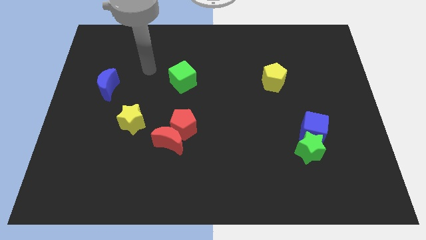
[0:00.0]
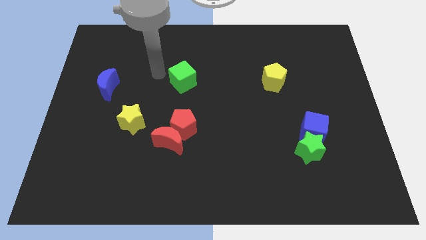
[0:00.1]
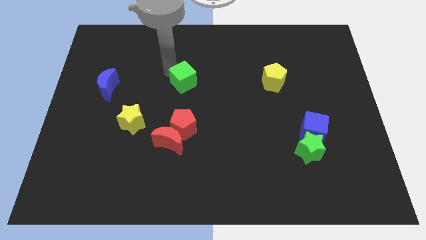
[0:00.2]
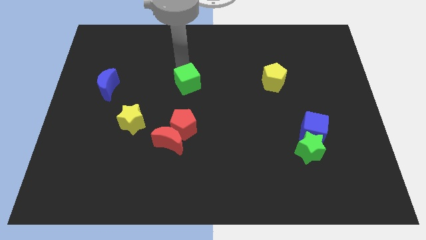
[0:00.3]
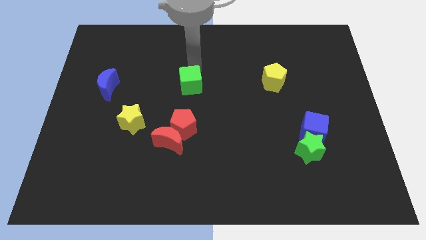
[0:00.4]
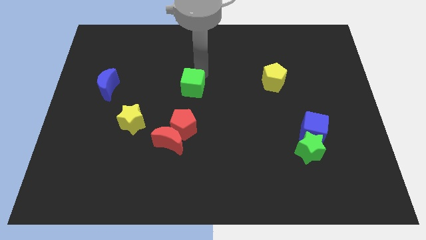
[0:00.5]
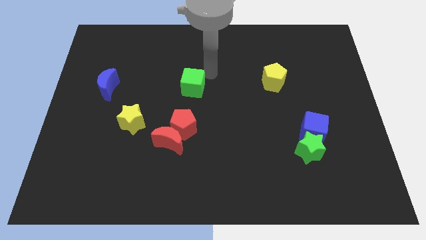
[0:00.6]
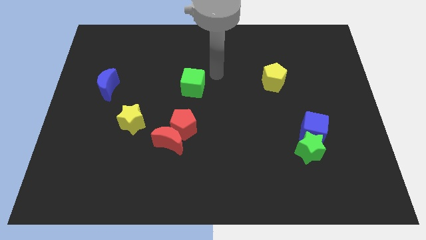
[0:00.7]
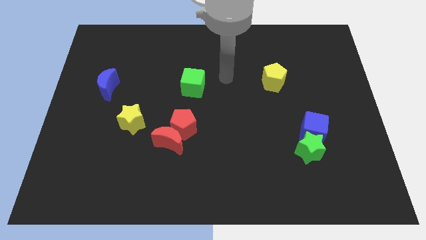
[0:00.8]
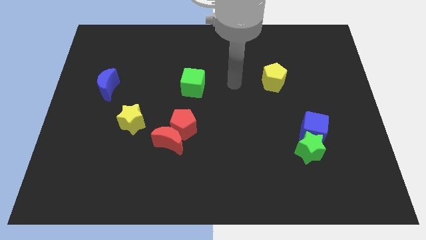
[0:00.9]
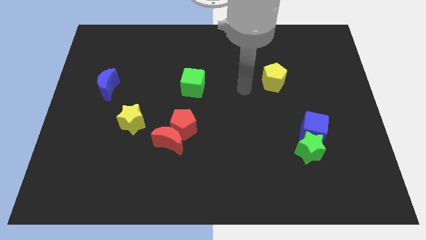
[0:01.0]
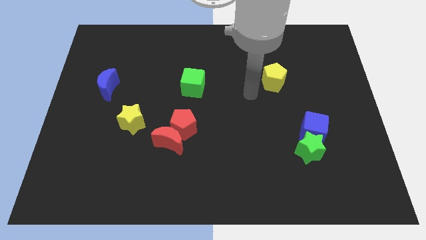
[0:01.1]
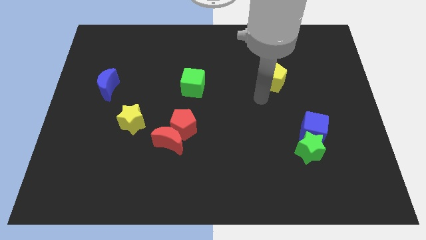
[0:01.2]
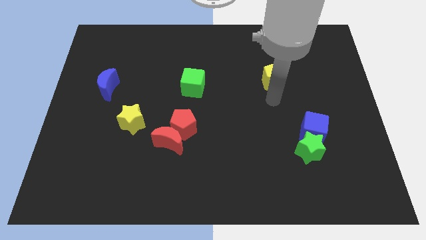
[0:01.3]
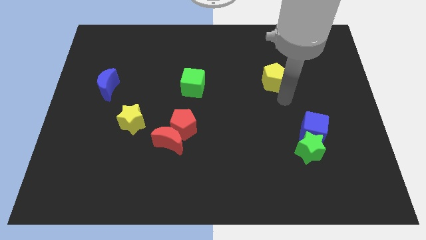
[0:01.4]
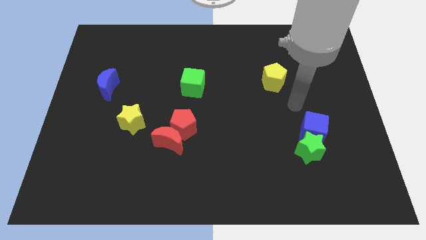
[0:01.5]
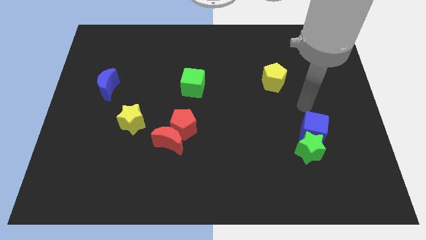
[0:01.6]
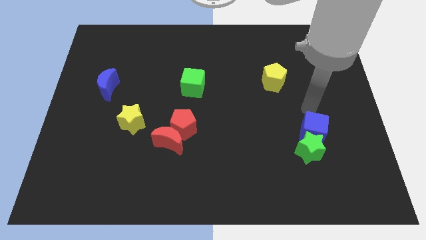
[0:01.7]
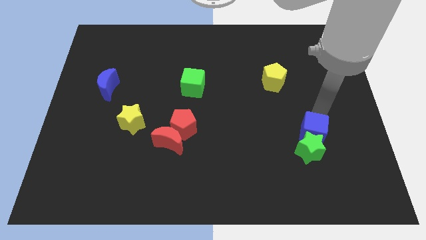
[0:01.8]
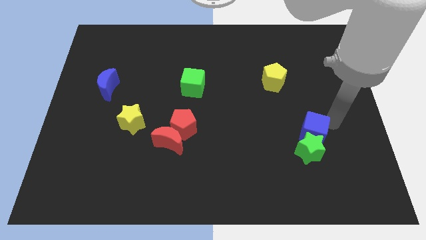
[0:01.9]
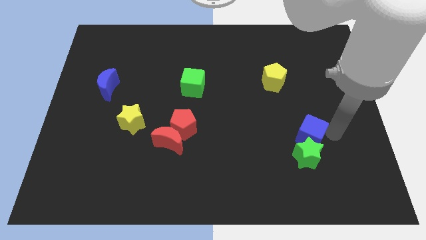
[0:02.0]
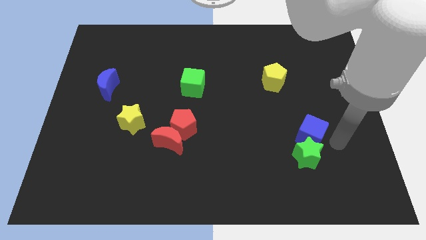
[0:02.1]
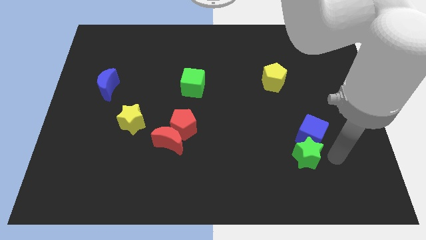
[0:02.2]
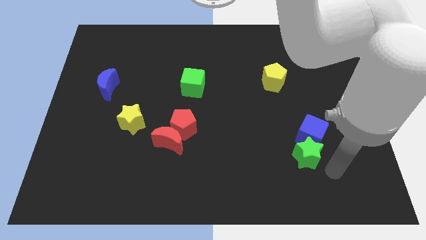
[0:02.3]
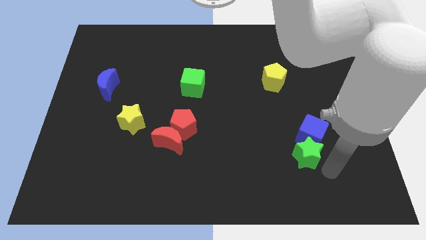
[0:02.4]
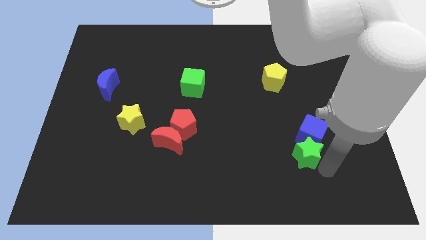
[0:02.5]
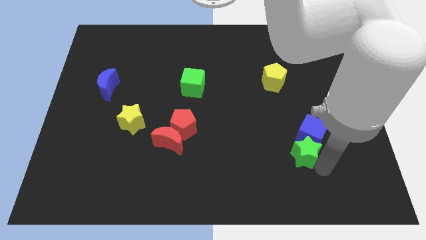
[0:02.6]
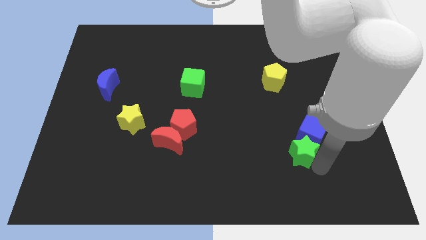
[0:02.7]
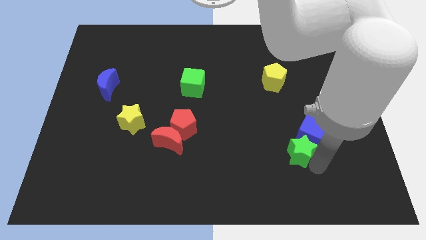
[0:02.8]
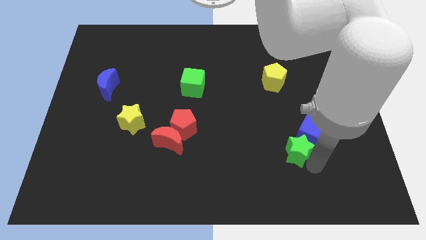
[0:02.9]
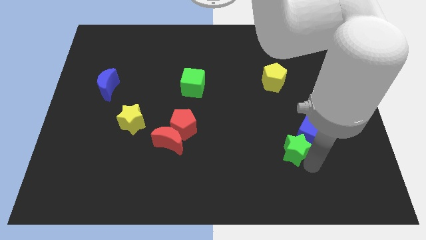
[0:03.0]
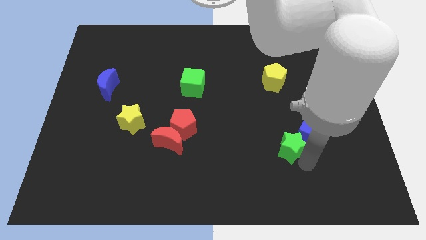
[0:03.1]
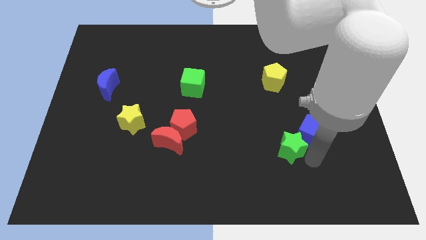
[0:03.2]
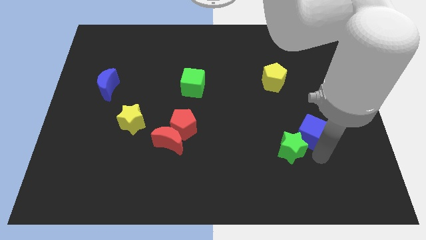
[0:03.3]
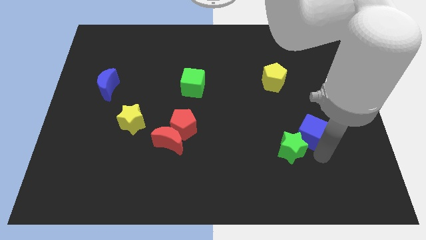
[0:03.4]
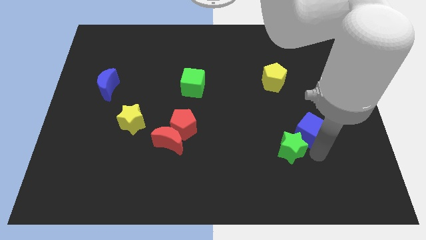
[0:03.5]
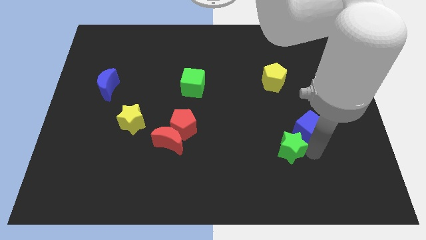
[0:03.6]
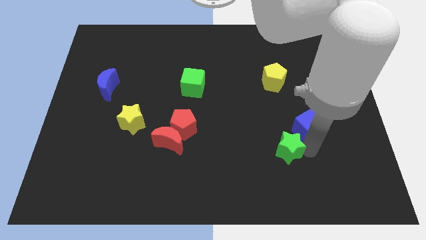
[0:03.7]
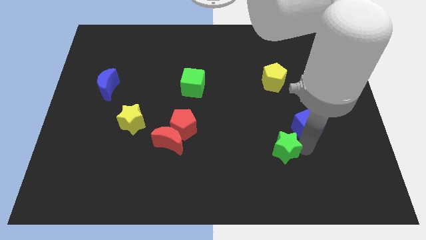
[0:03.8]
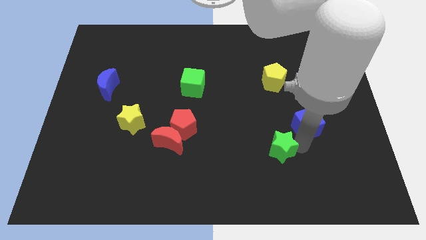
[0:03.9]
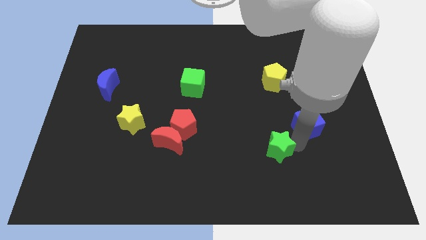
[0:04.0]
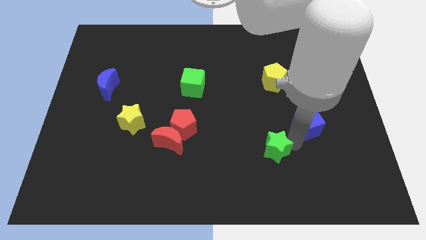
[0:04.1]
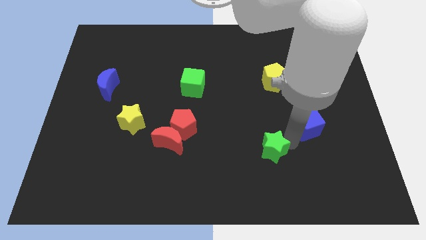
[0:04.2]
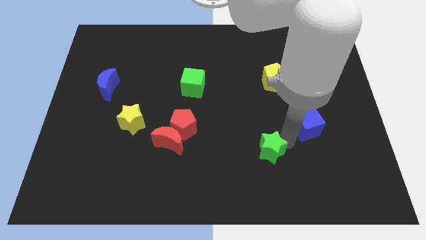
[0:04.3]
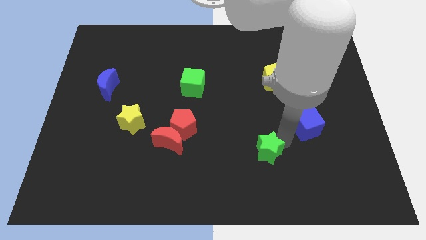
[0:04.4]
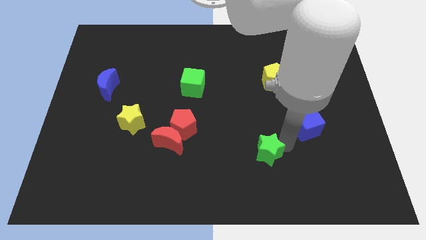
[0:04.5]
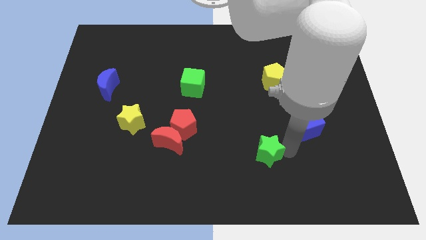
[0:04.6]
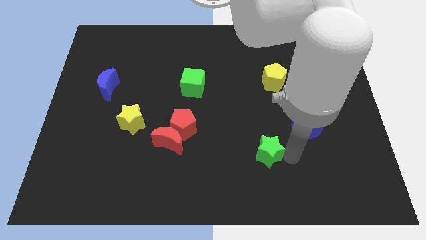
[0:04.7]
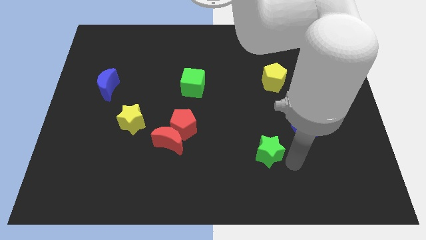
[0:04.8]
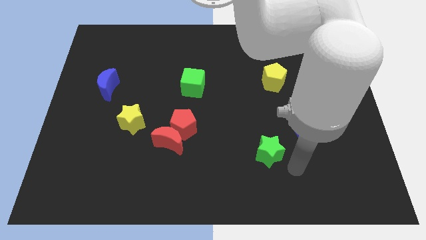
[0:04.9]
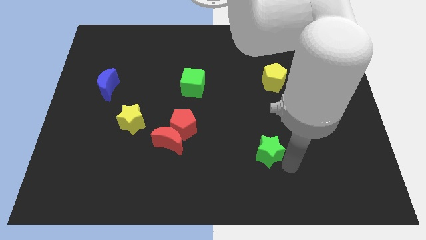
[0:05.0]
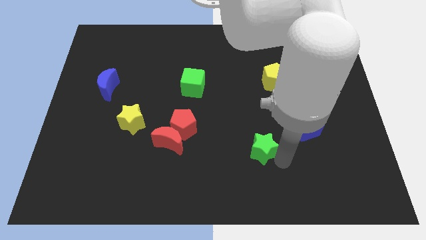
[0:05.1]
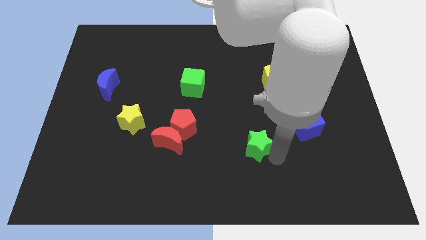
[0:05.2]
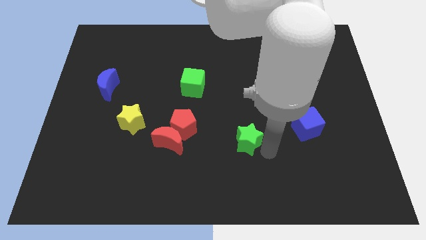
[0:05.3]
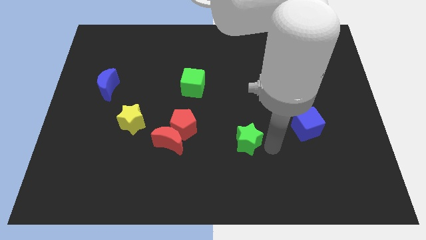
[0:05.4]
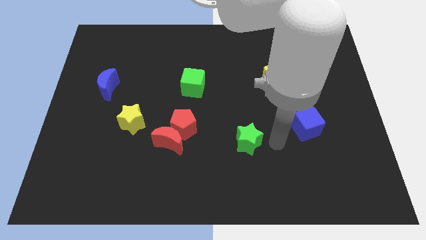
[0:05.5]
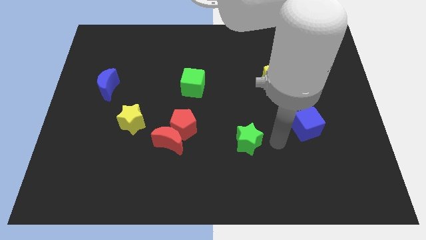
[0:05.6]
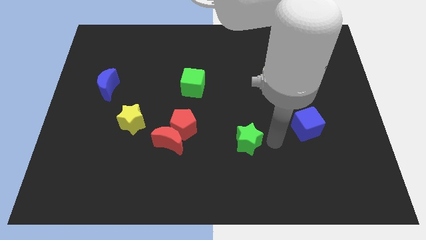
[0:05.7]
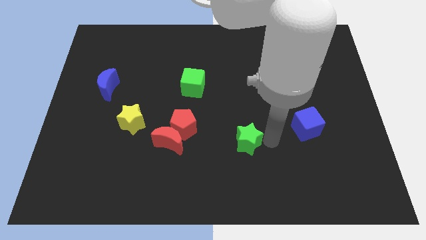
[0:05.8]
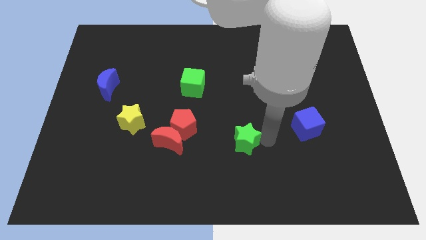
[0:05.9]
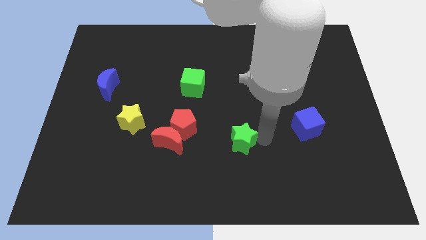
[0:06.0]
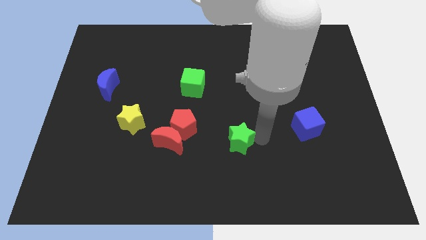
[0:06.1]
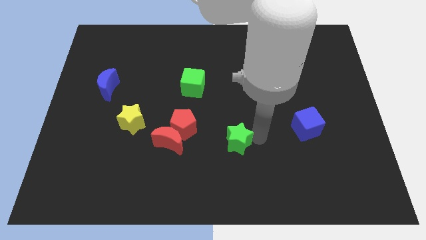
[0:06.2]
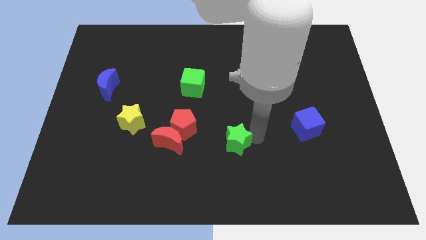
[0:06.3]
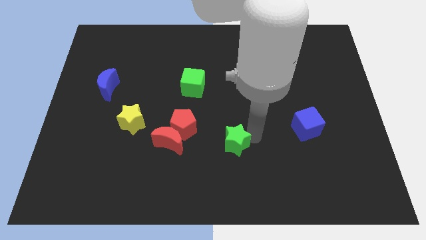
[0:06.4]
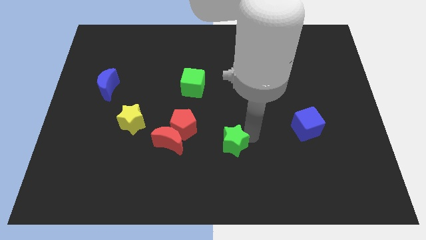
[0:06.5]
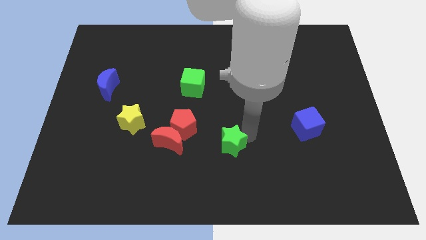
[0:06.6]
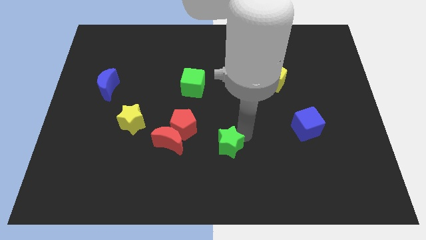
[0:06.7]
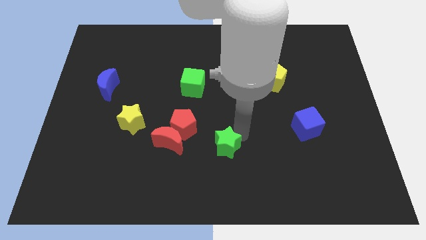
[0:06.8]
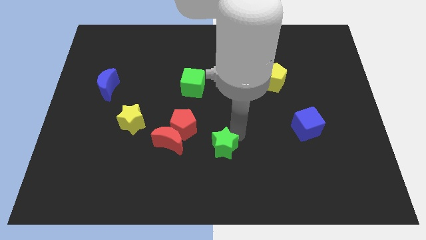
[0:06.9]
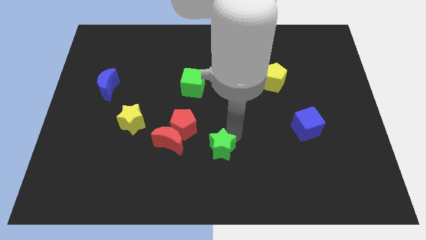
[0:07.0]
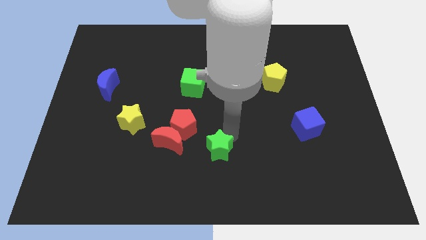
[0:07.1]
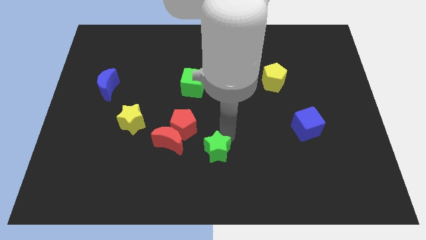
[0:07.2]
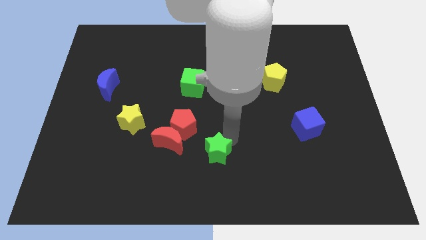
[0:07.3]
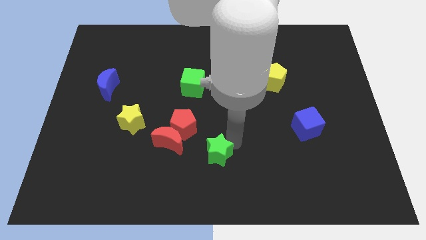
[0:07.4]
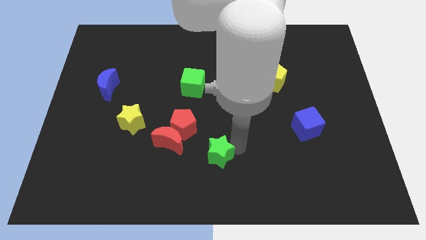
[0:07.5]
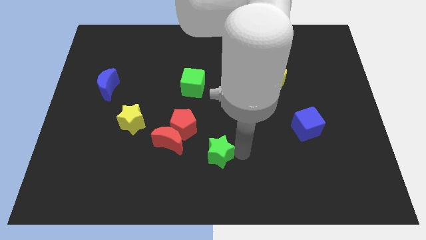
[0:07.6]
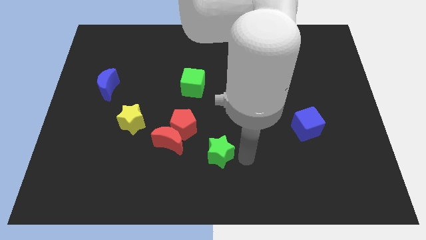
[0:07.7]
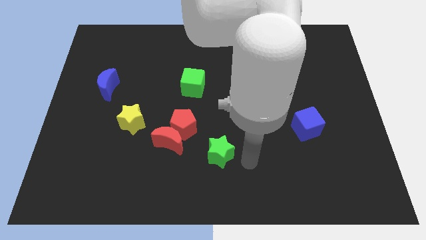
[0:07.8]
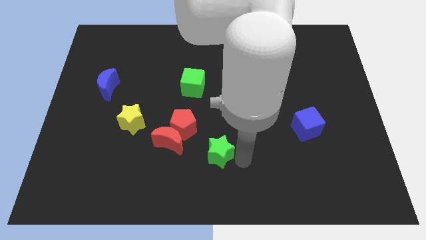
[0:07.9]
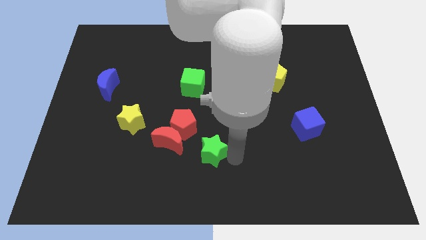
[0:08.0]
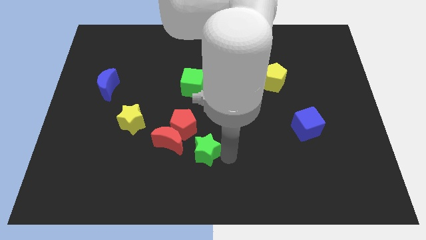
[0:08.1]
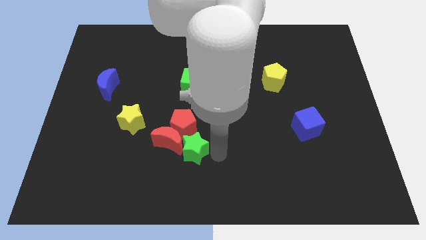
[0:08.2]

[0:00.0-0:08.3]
push the green star to the red moon
